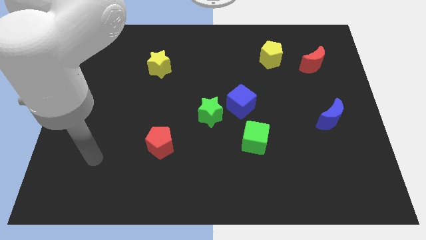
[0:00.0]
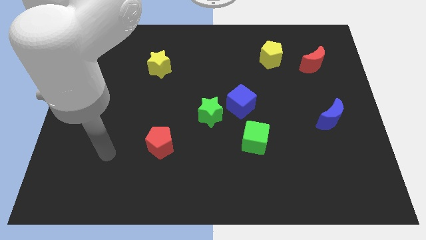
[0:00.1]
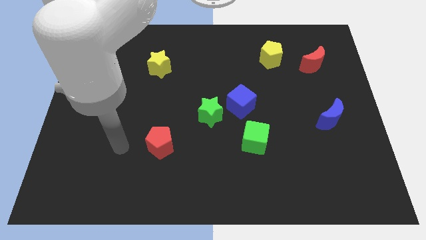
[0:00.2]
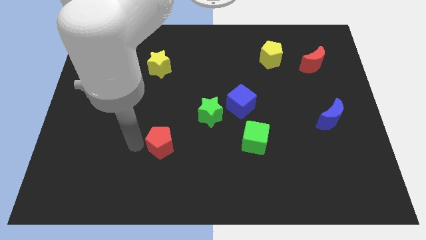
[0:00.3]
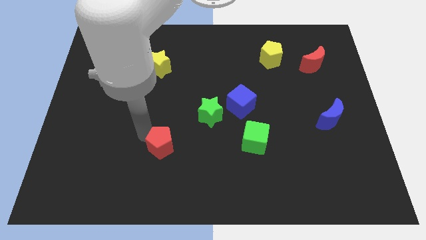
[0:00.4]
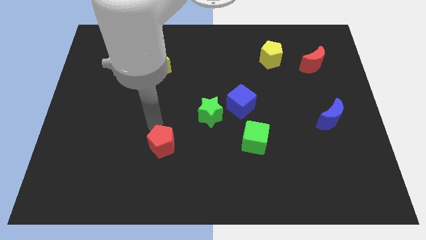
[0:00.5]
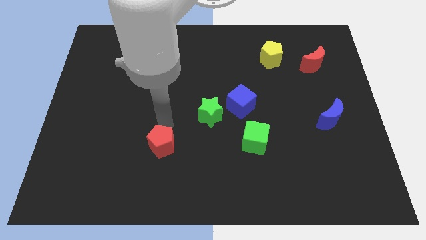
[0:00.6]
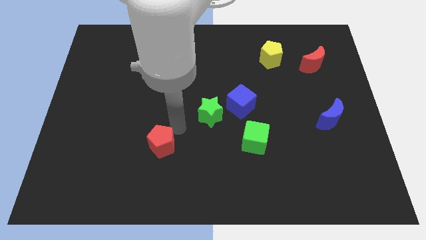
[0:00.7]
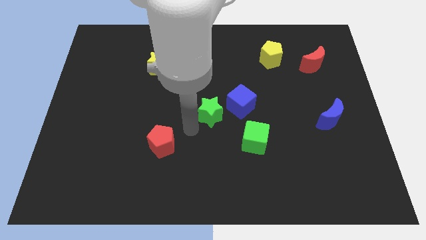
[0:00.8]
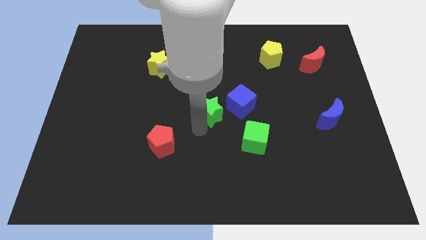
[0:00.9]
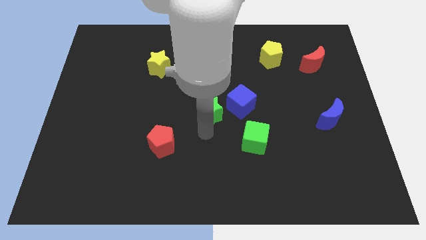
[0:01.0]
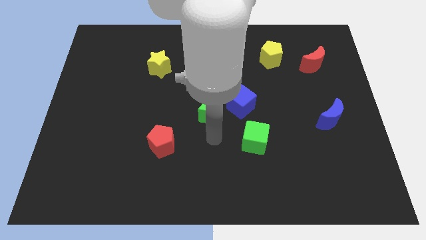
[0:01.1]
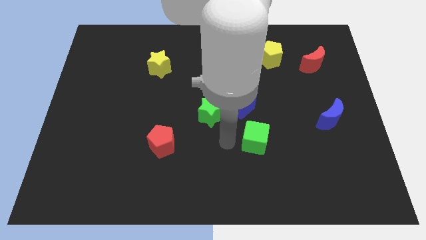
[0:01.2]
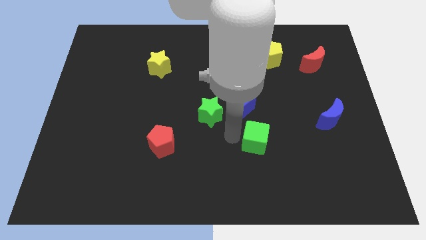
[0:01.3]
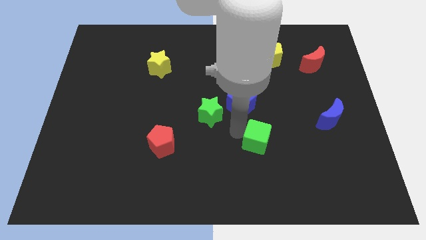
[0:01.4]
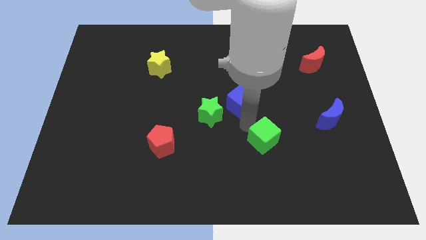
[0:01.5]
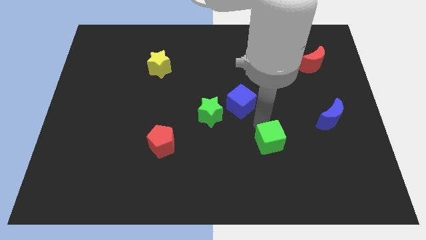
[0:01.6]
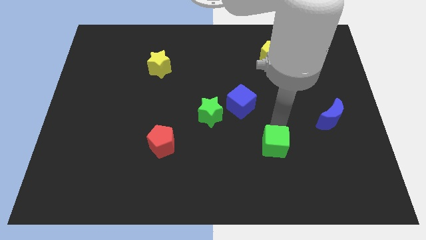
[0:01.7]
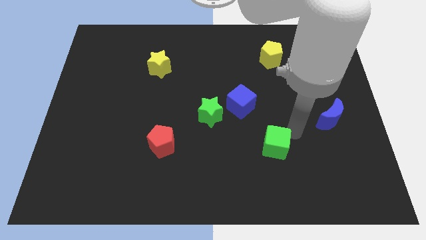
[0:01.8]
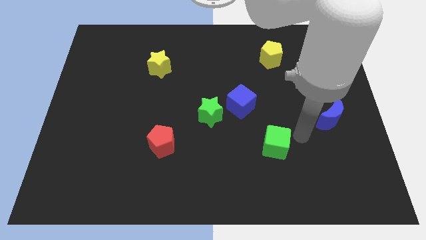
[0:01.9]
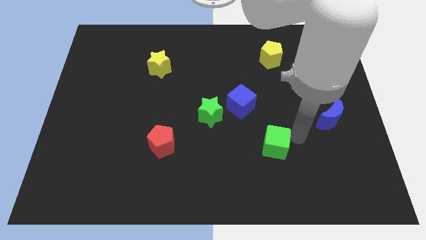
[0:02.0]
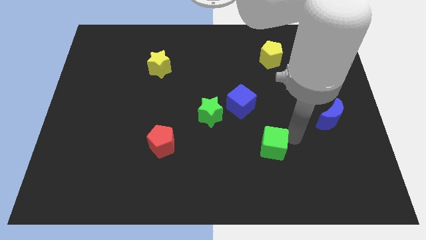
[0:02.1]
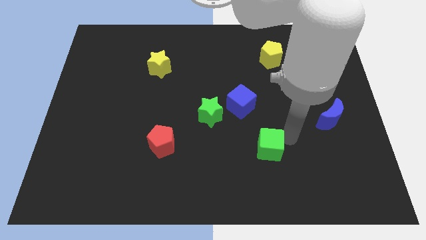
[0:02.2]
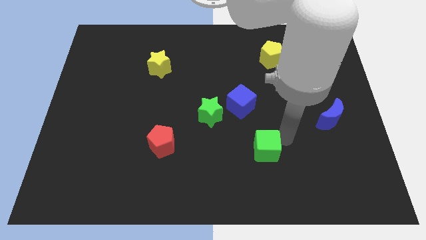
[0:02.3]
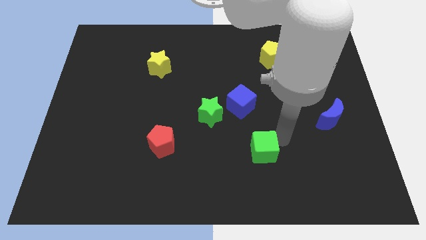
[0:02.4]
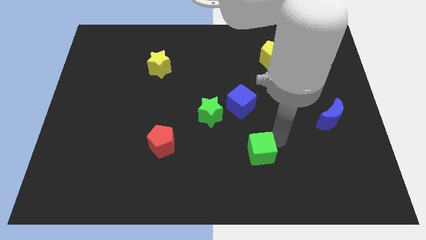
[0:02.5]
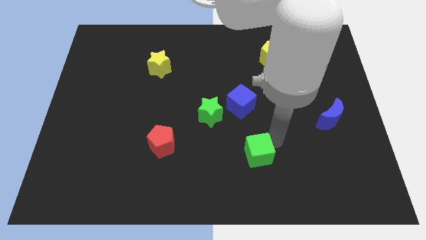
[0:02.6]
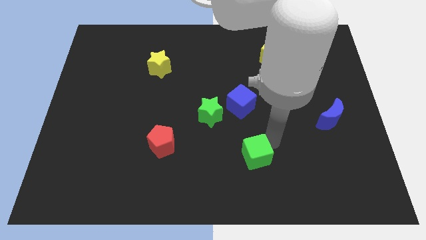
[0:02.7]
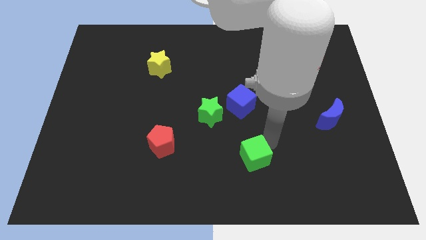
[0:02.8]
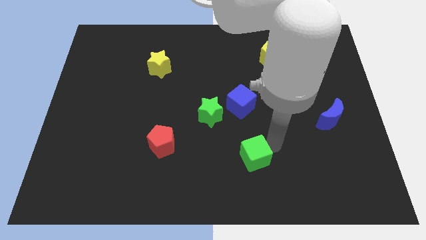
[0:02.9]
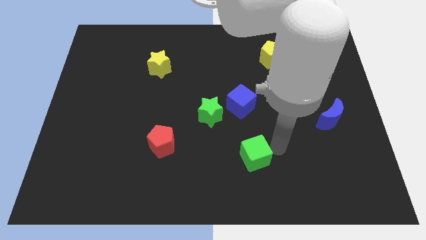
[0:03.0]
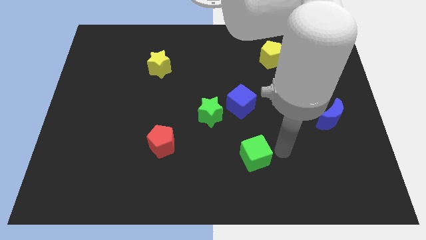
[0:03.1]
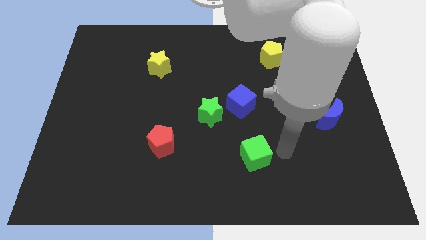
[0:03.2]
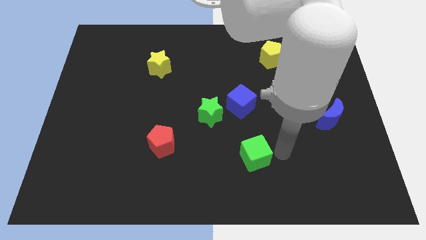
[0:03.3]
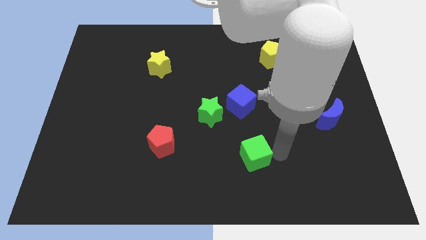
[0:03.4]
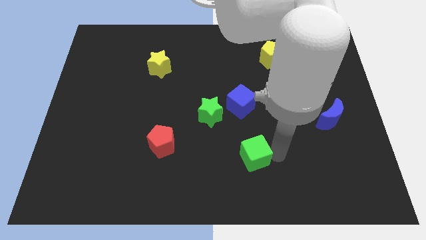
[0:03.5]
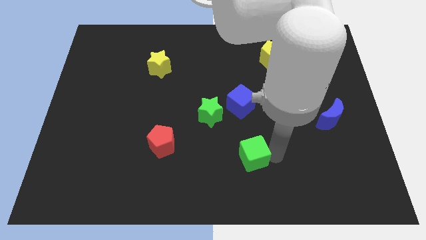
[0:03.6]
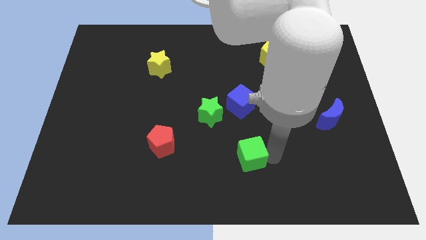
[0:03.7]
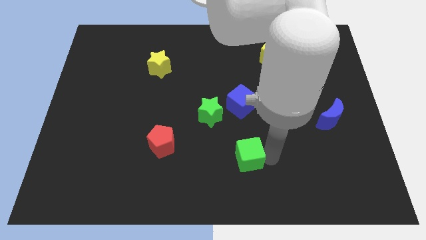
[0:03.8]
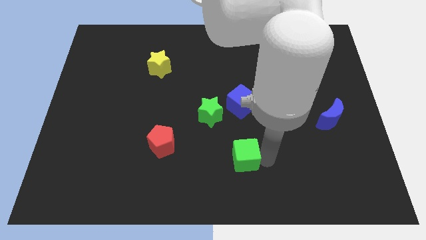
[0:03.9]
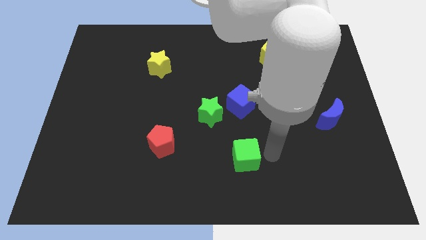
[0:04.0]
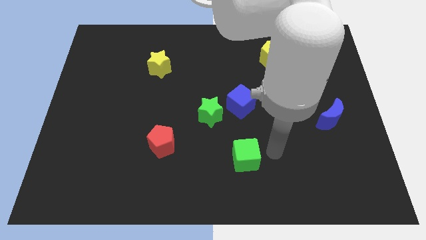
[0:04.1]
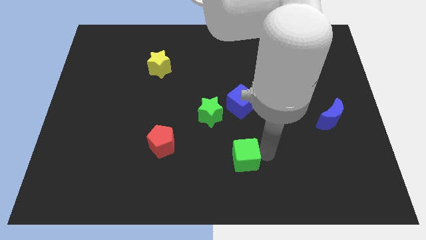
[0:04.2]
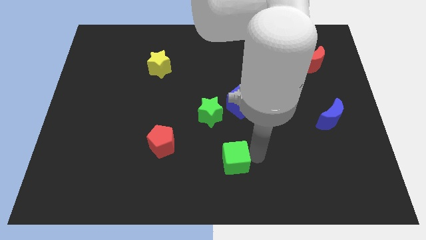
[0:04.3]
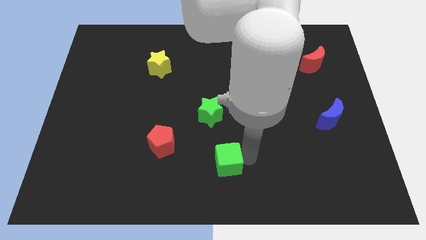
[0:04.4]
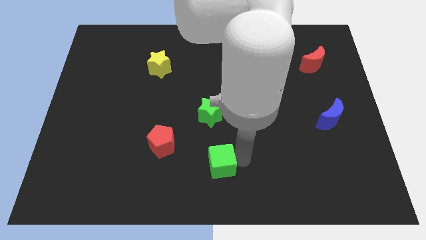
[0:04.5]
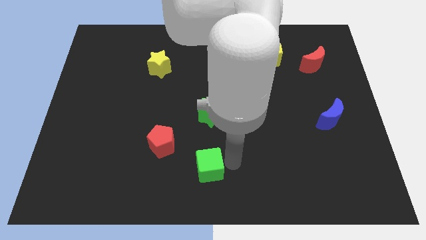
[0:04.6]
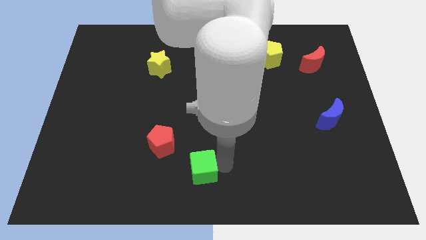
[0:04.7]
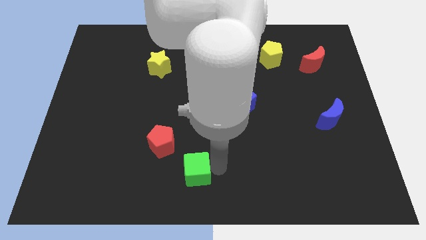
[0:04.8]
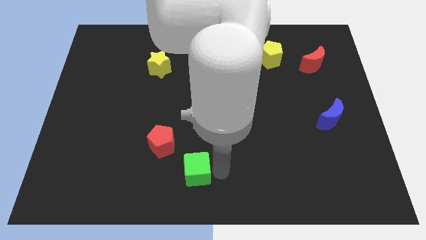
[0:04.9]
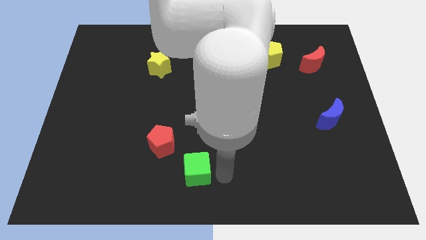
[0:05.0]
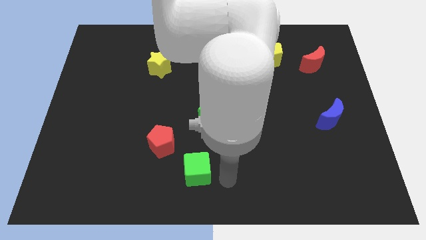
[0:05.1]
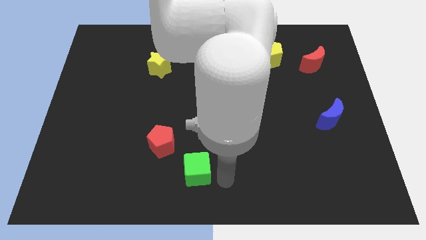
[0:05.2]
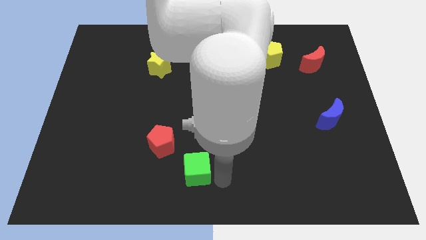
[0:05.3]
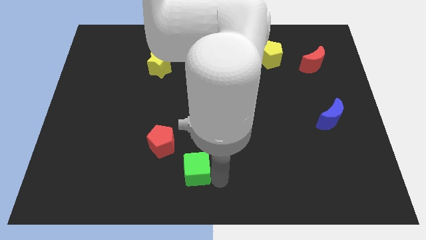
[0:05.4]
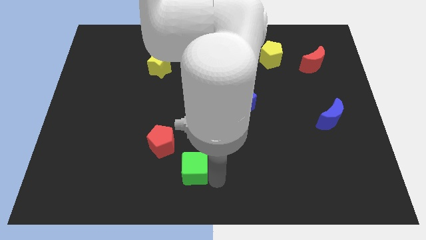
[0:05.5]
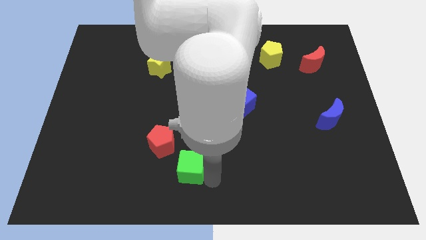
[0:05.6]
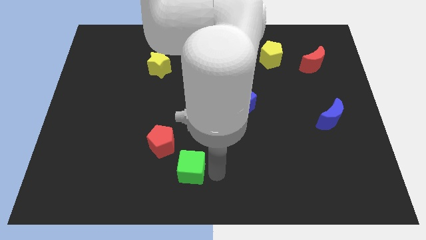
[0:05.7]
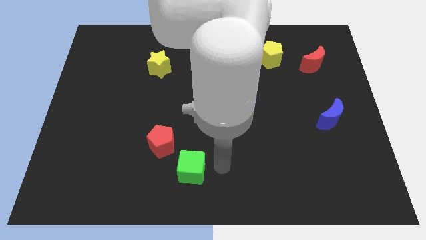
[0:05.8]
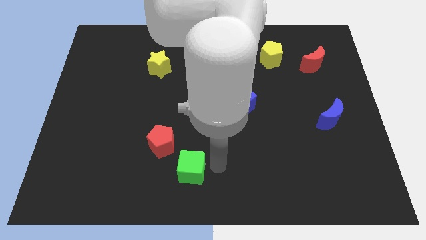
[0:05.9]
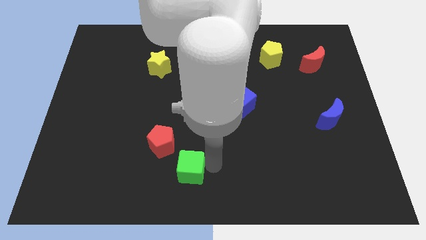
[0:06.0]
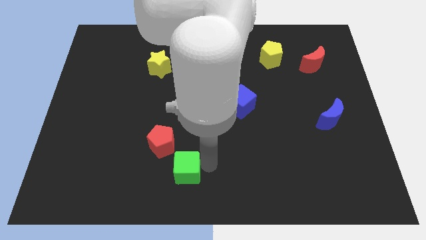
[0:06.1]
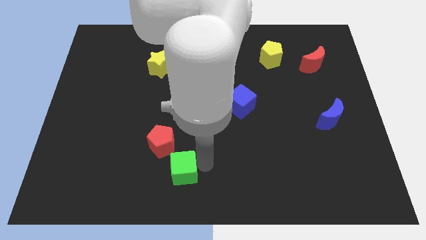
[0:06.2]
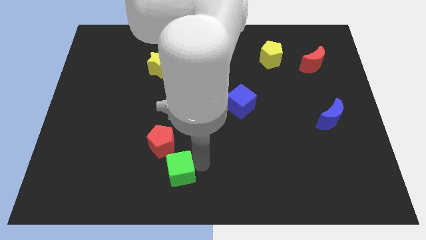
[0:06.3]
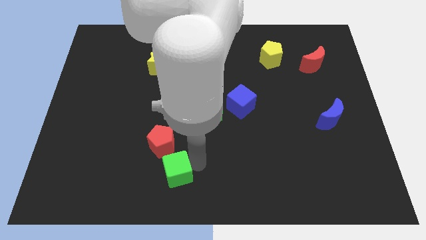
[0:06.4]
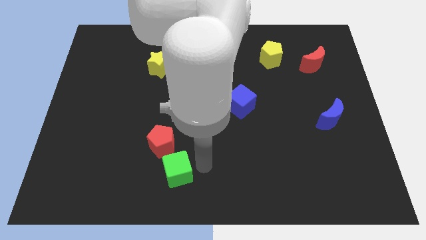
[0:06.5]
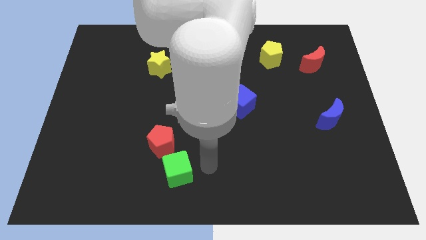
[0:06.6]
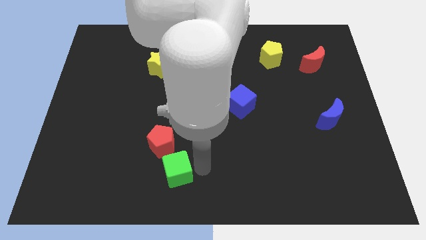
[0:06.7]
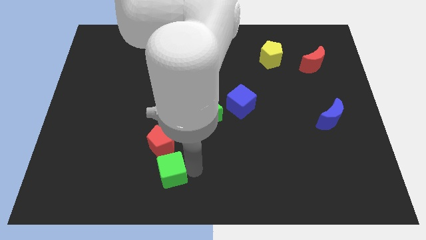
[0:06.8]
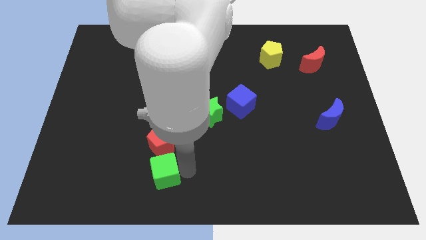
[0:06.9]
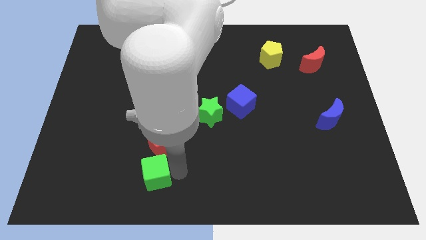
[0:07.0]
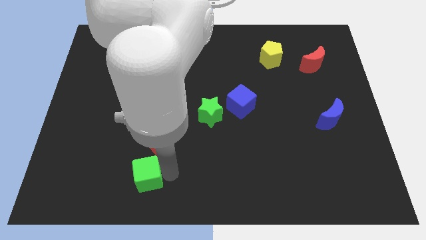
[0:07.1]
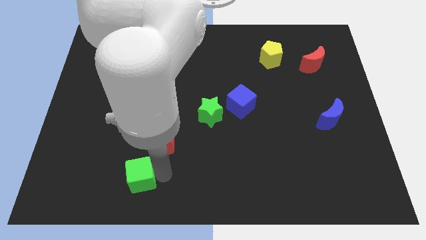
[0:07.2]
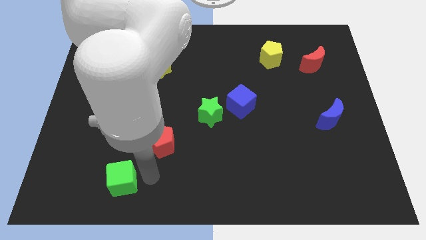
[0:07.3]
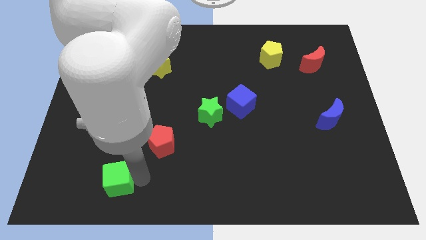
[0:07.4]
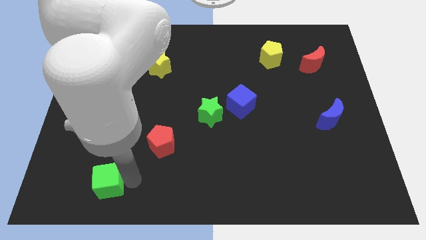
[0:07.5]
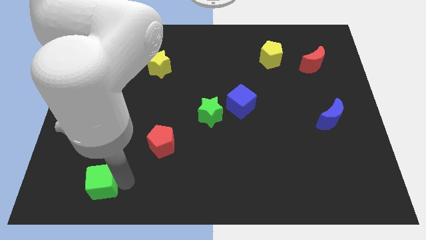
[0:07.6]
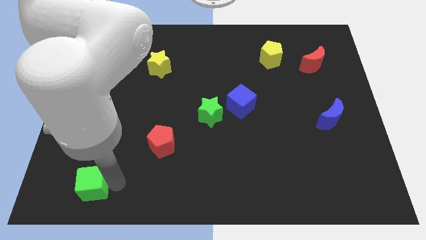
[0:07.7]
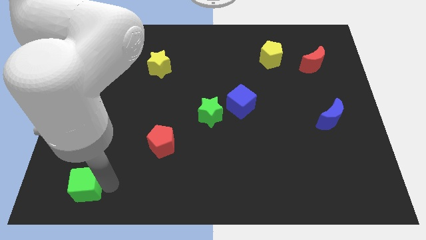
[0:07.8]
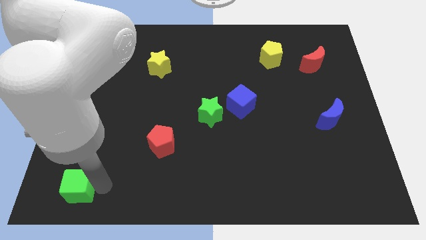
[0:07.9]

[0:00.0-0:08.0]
push the green cube to the lower left corner
